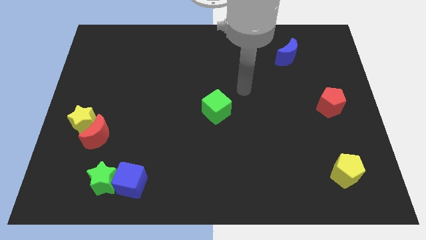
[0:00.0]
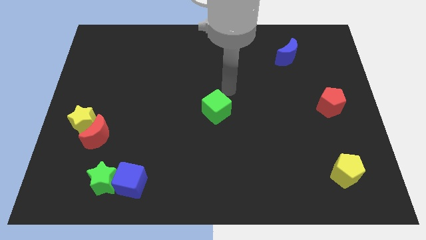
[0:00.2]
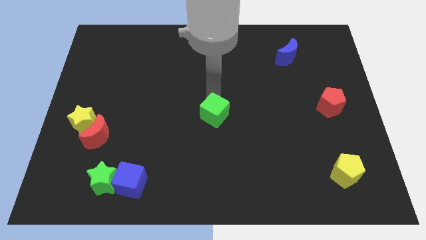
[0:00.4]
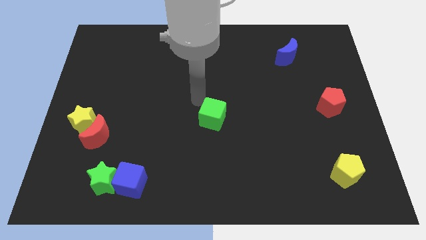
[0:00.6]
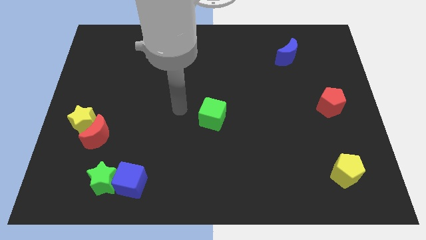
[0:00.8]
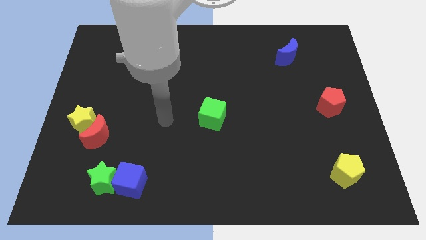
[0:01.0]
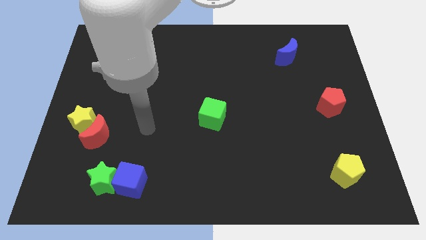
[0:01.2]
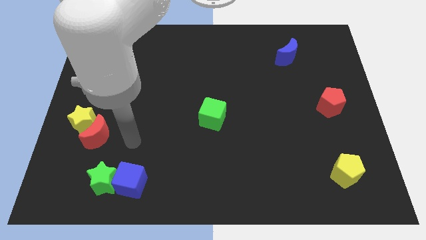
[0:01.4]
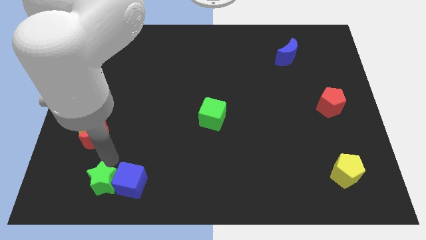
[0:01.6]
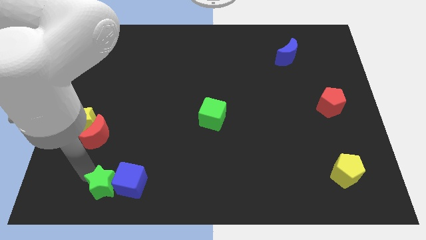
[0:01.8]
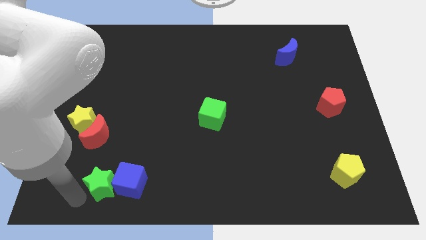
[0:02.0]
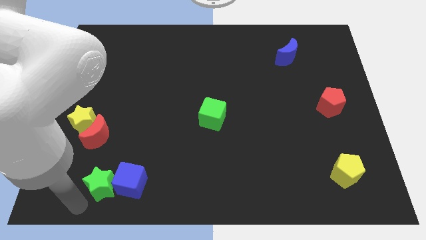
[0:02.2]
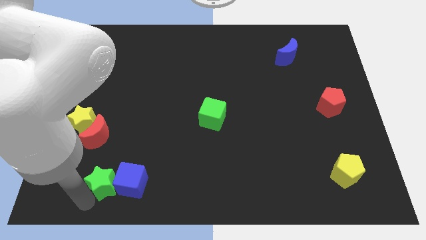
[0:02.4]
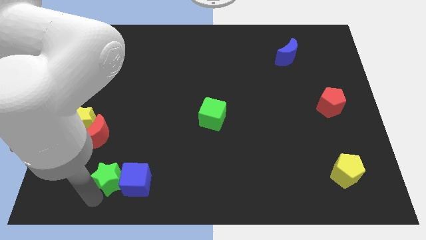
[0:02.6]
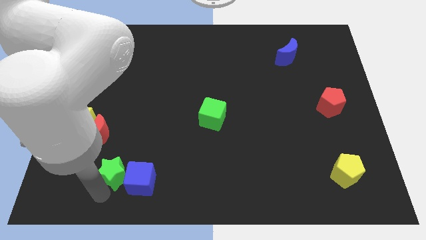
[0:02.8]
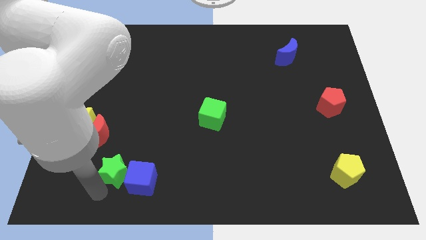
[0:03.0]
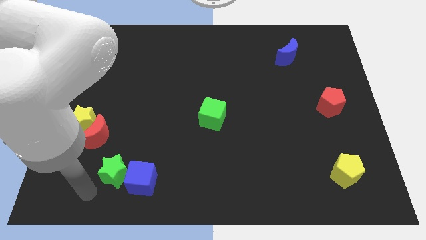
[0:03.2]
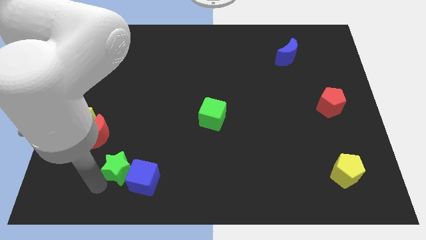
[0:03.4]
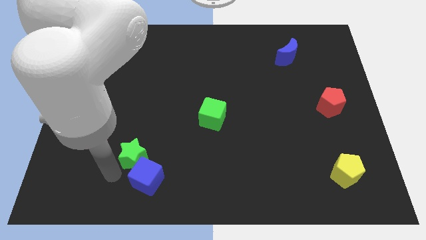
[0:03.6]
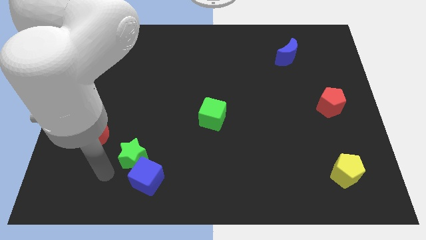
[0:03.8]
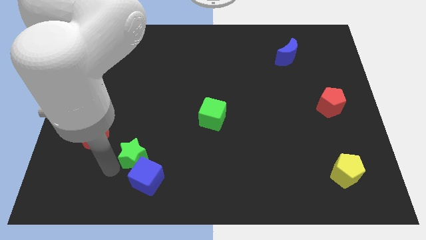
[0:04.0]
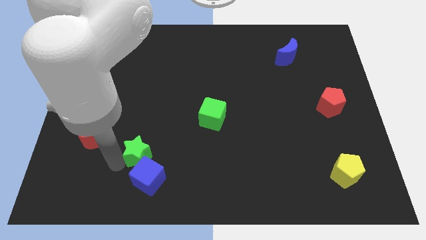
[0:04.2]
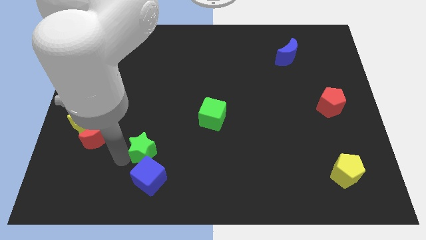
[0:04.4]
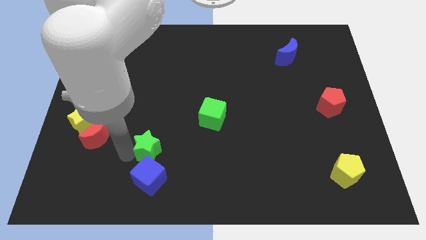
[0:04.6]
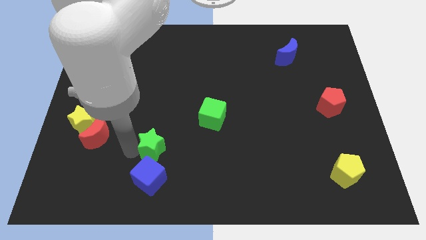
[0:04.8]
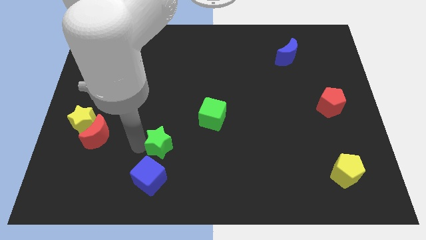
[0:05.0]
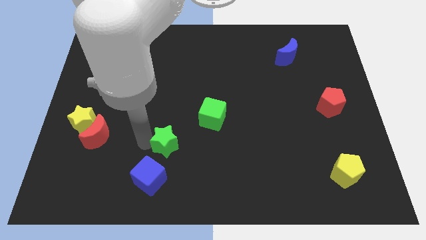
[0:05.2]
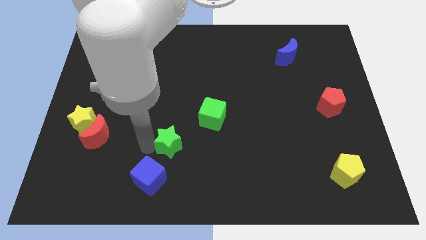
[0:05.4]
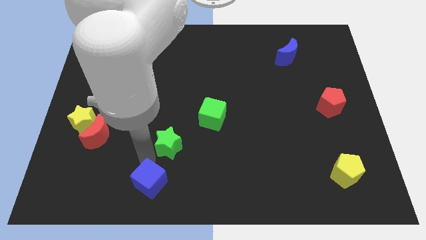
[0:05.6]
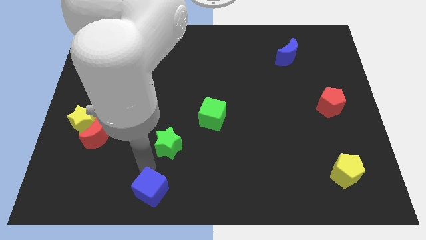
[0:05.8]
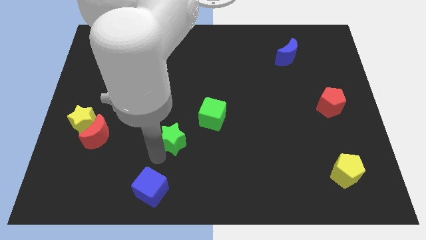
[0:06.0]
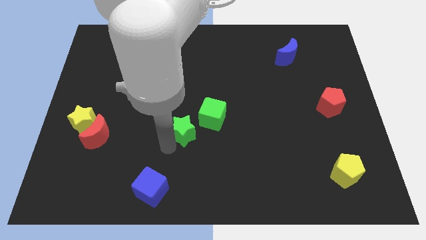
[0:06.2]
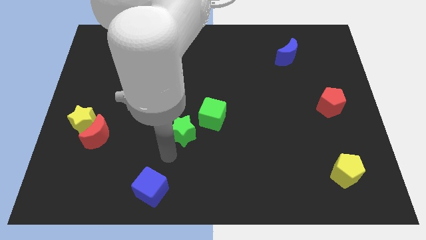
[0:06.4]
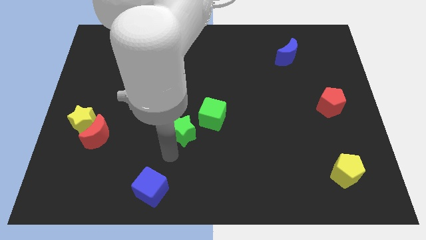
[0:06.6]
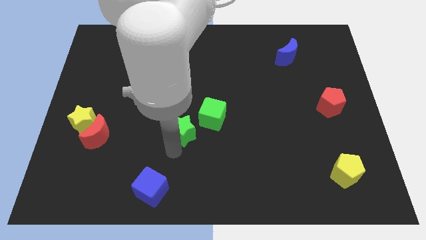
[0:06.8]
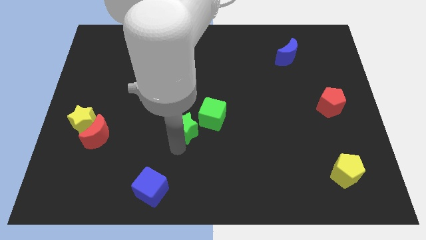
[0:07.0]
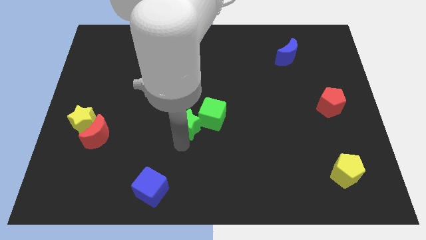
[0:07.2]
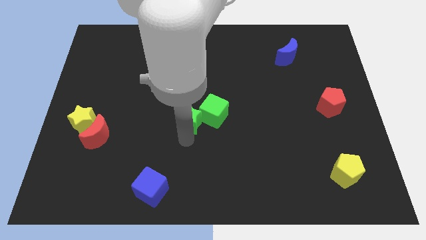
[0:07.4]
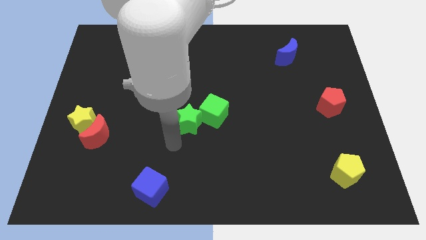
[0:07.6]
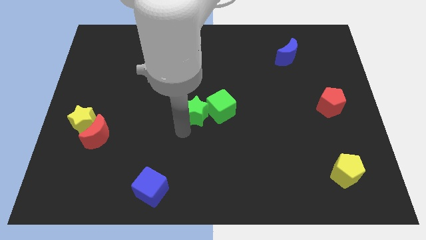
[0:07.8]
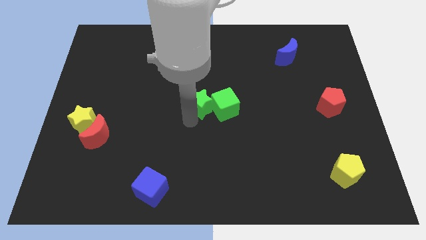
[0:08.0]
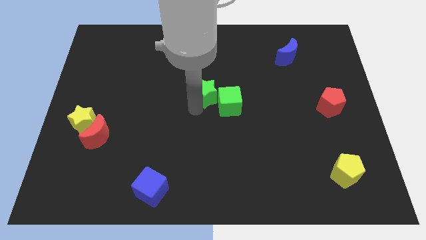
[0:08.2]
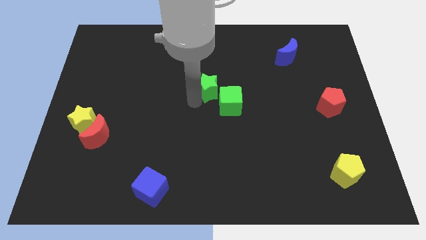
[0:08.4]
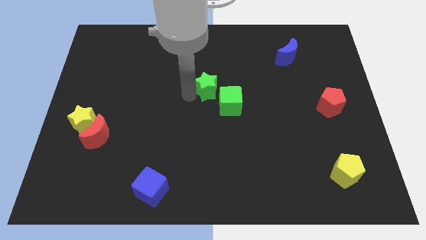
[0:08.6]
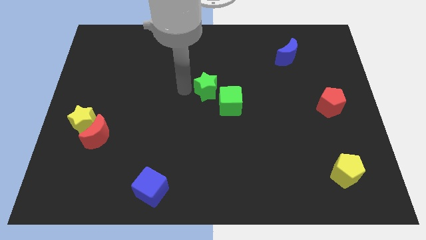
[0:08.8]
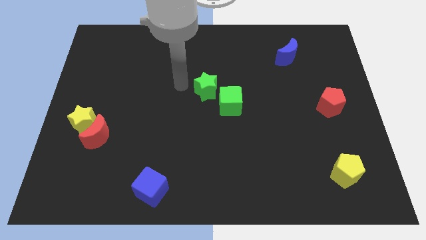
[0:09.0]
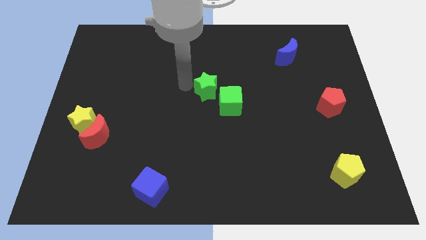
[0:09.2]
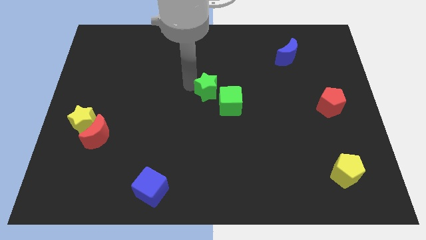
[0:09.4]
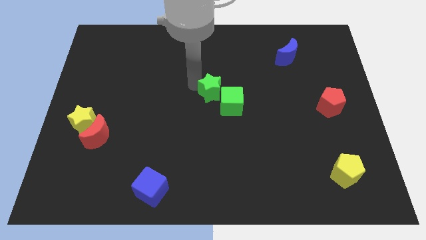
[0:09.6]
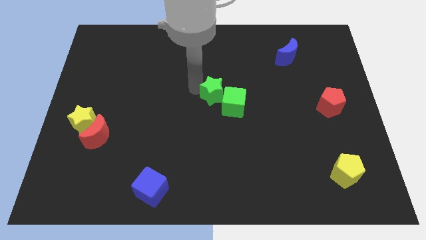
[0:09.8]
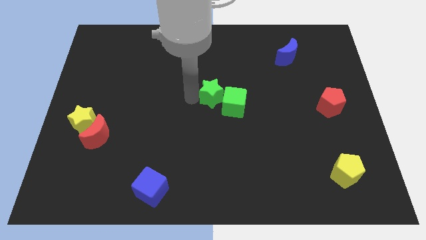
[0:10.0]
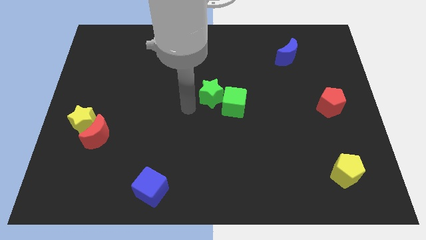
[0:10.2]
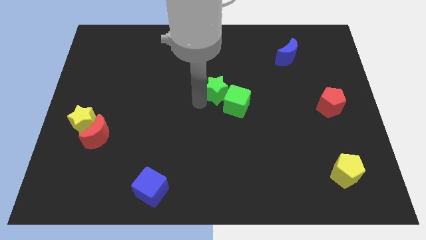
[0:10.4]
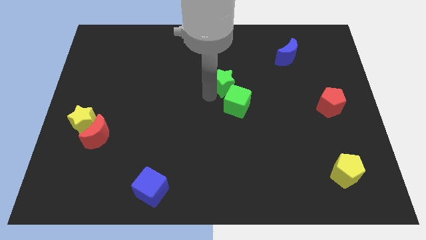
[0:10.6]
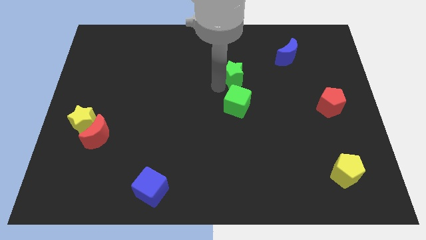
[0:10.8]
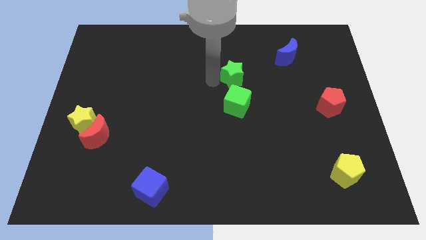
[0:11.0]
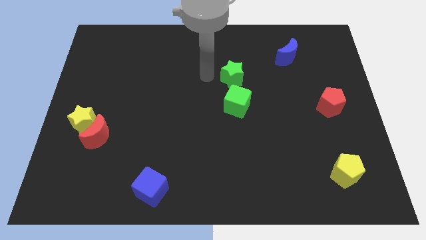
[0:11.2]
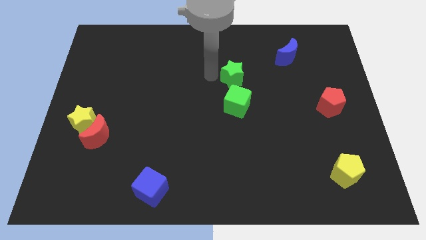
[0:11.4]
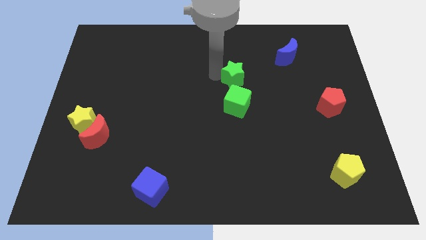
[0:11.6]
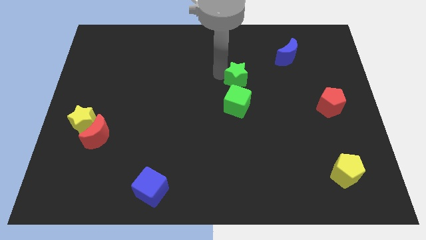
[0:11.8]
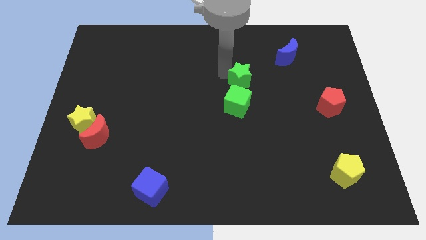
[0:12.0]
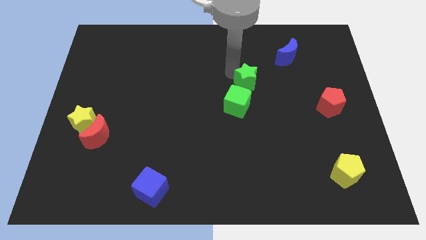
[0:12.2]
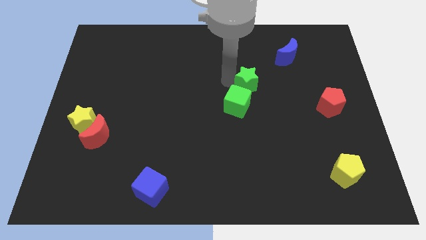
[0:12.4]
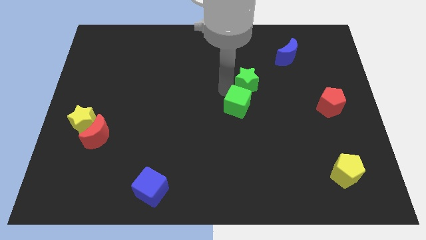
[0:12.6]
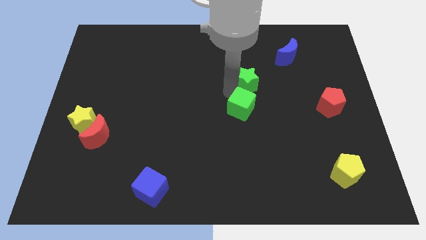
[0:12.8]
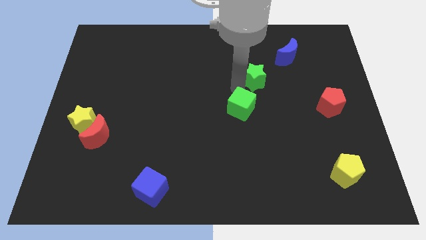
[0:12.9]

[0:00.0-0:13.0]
move the green star diagonally down and to the left of the blue moon

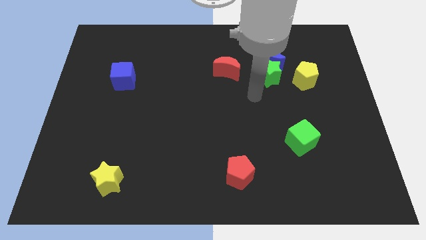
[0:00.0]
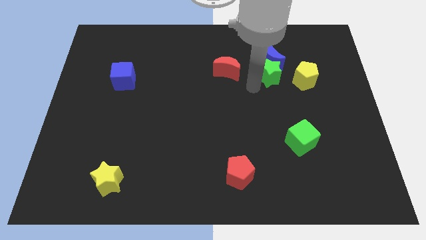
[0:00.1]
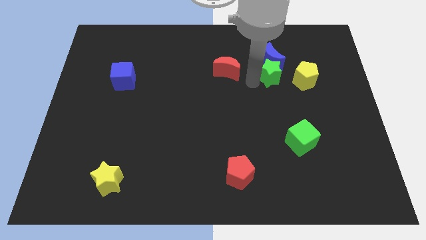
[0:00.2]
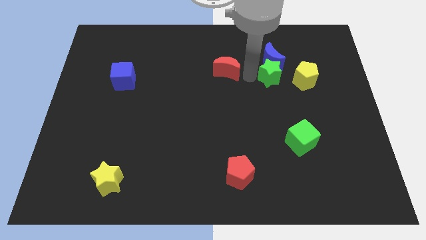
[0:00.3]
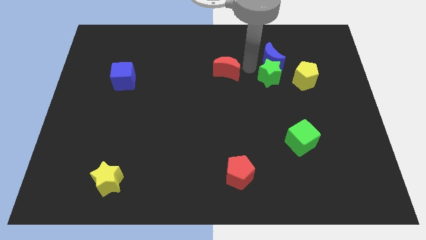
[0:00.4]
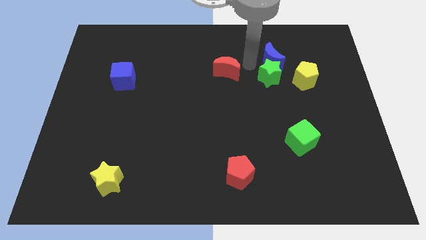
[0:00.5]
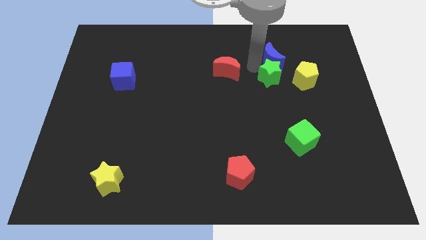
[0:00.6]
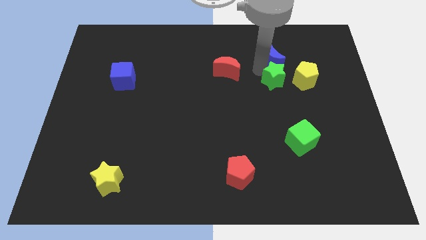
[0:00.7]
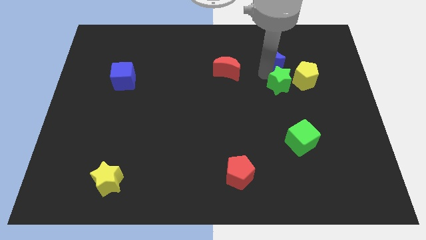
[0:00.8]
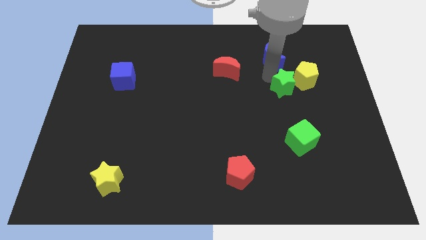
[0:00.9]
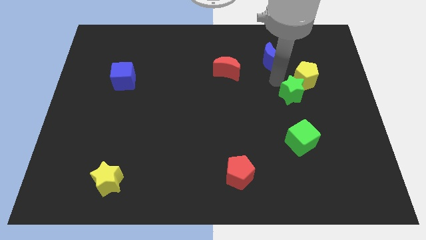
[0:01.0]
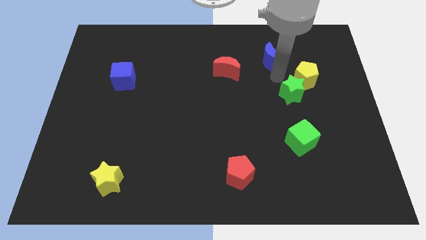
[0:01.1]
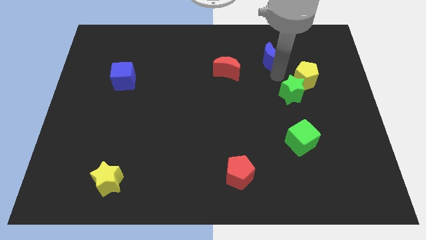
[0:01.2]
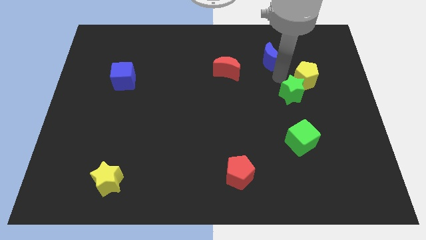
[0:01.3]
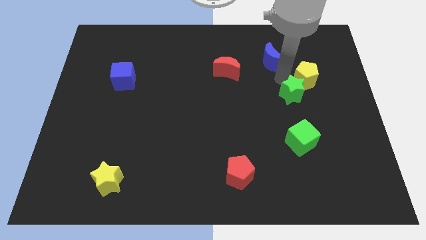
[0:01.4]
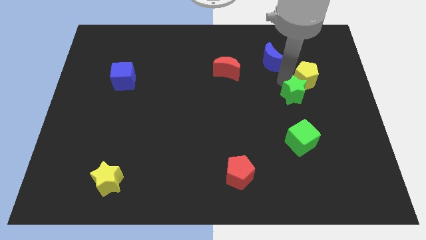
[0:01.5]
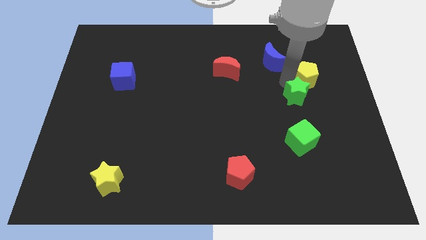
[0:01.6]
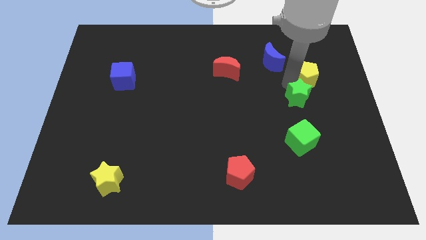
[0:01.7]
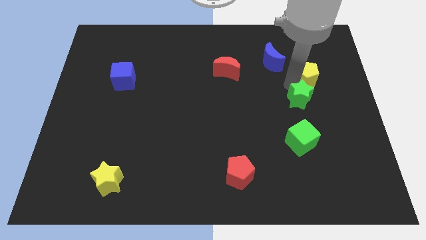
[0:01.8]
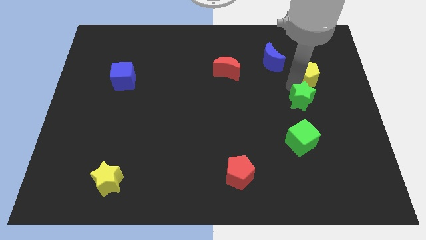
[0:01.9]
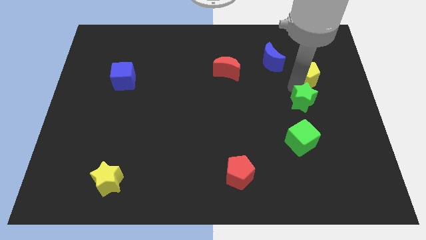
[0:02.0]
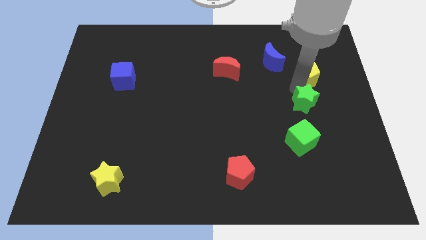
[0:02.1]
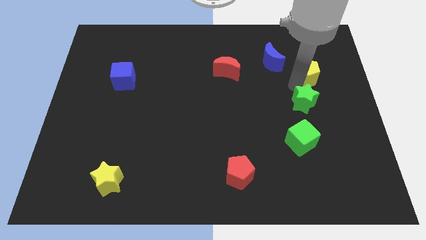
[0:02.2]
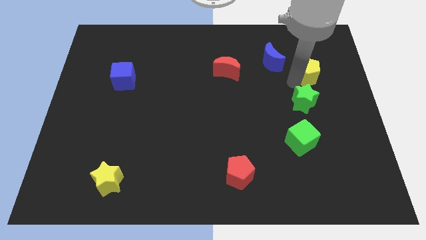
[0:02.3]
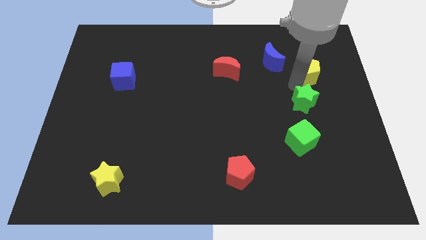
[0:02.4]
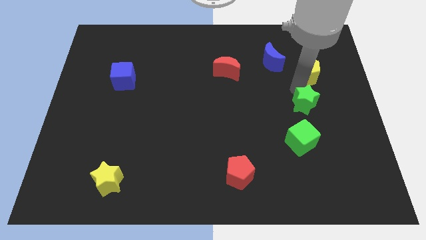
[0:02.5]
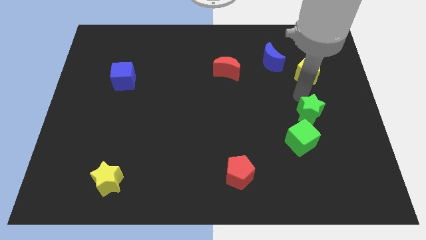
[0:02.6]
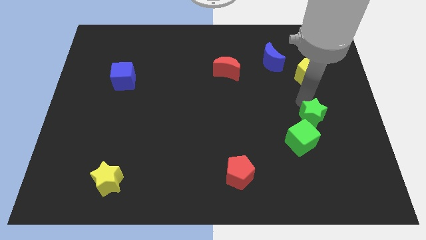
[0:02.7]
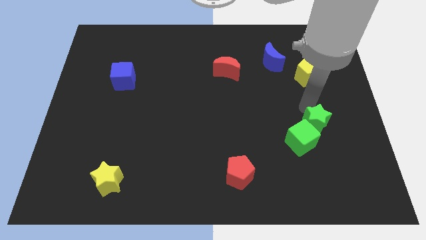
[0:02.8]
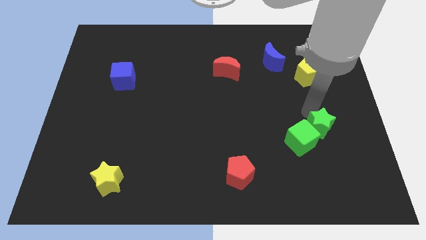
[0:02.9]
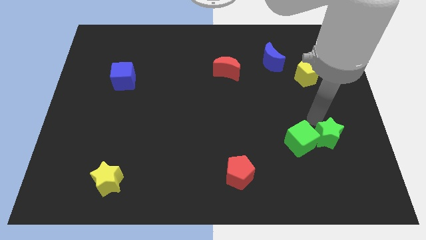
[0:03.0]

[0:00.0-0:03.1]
put the green star to the bottom right of the green cube
